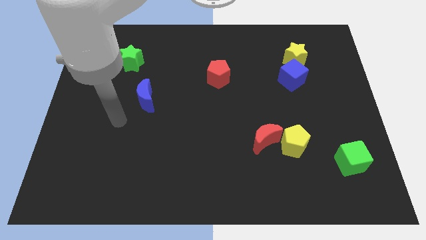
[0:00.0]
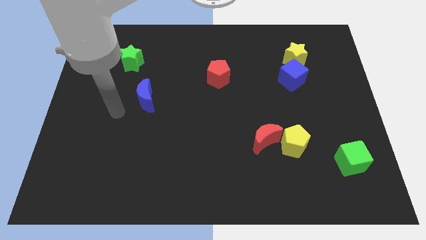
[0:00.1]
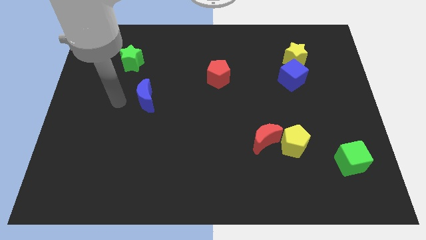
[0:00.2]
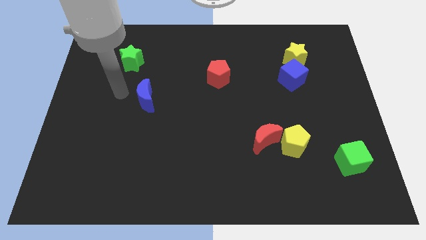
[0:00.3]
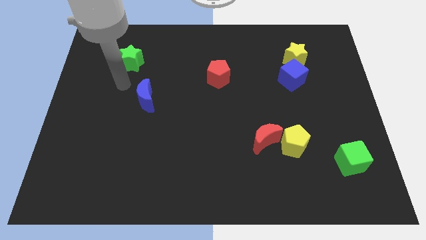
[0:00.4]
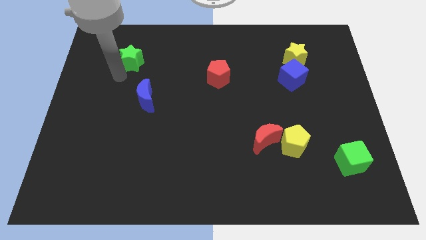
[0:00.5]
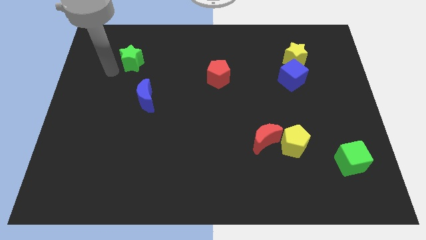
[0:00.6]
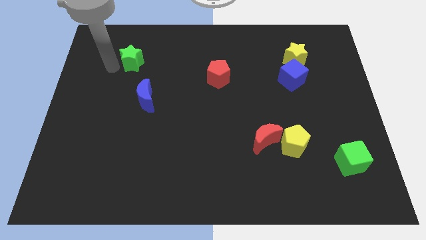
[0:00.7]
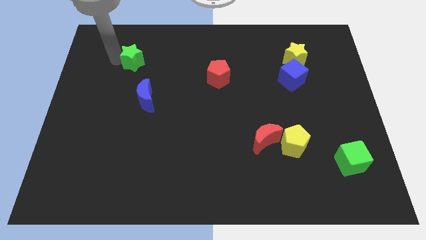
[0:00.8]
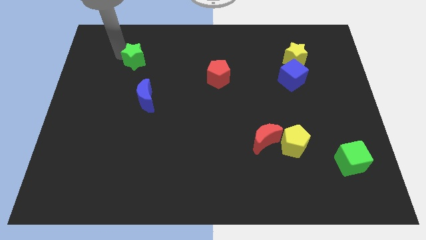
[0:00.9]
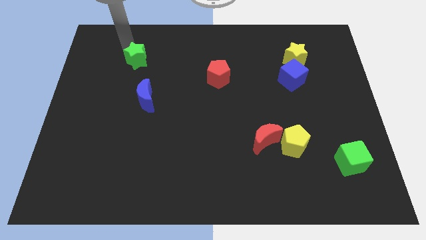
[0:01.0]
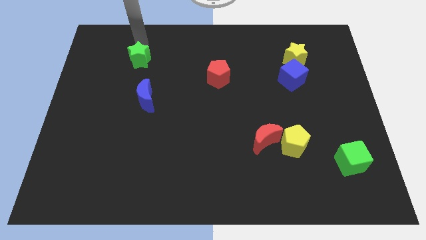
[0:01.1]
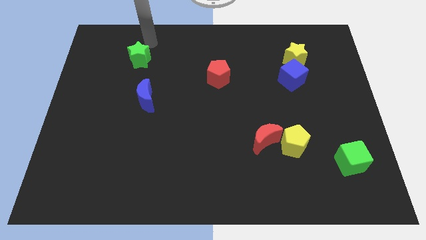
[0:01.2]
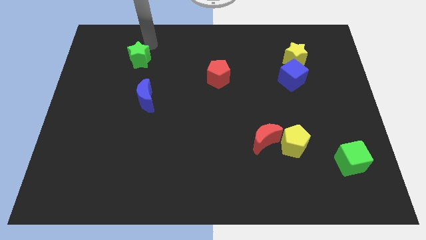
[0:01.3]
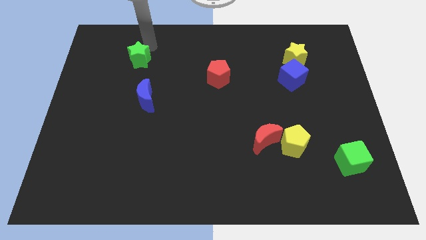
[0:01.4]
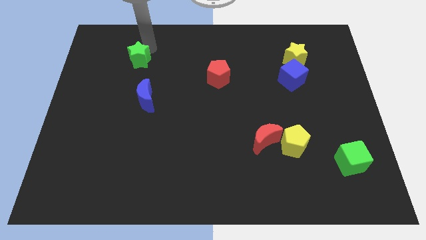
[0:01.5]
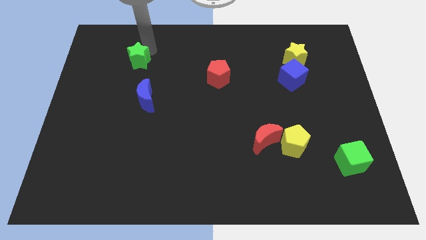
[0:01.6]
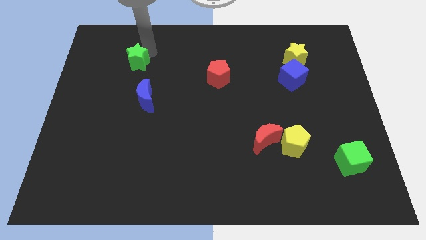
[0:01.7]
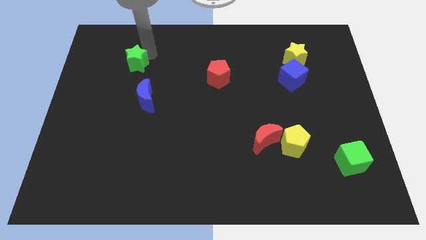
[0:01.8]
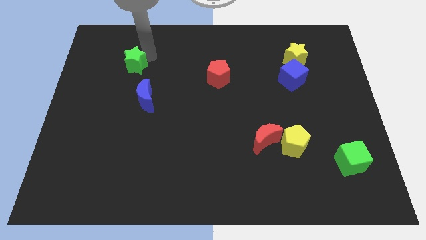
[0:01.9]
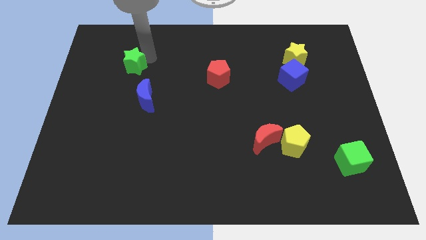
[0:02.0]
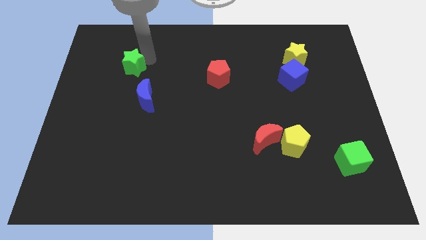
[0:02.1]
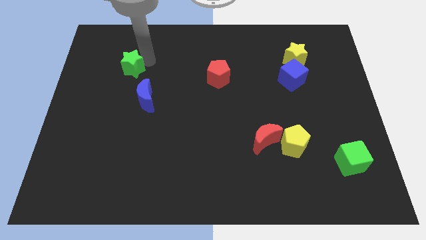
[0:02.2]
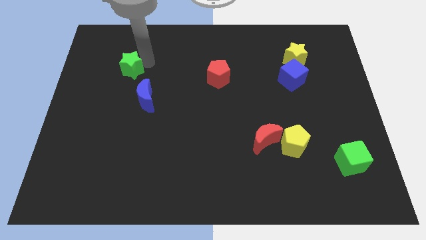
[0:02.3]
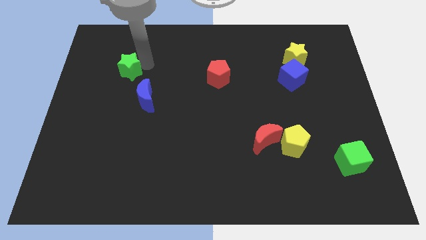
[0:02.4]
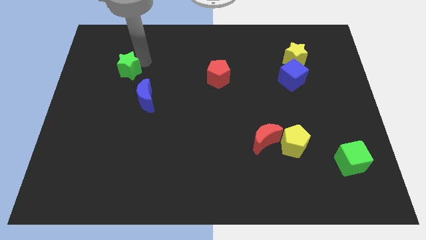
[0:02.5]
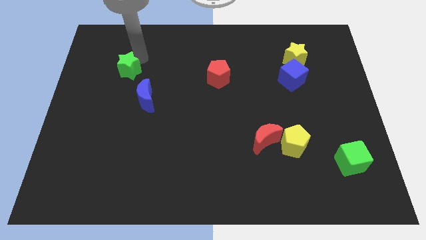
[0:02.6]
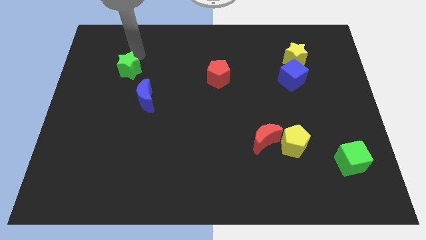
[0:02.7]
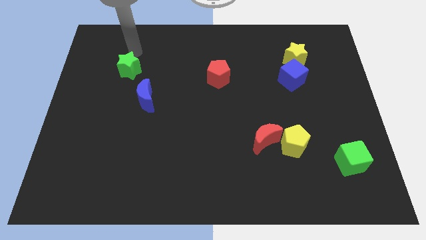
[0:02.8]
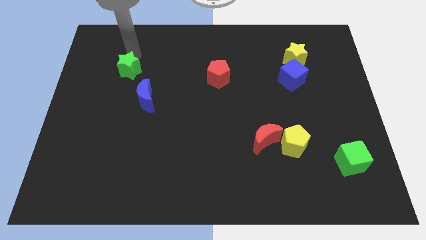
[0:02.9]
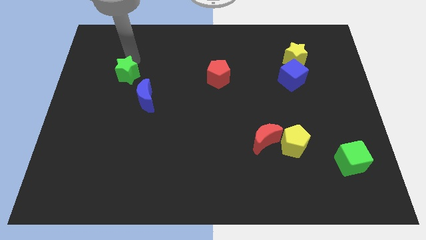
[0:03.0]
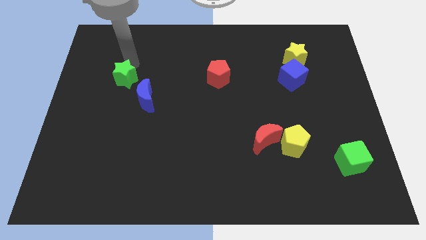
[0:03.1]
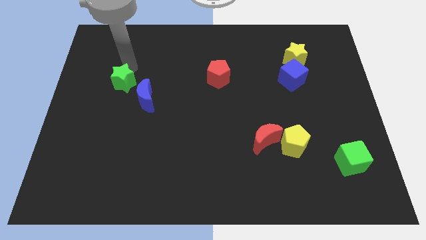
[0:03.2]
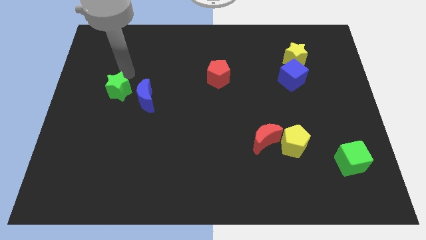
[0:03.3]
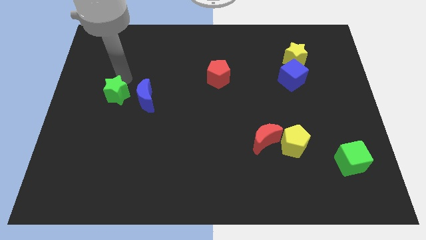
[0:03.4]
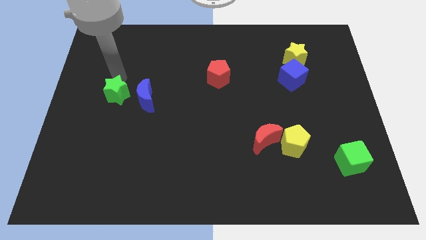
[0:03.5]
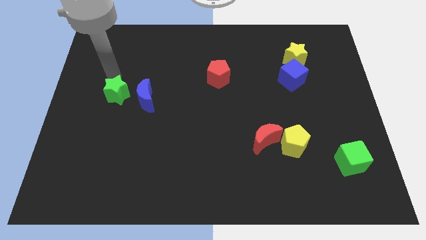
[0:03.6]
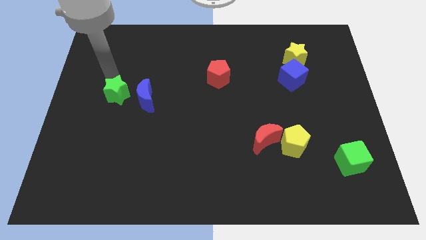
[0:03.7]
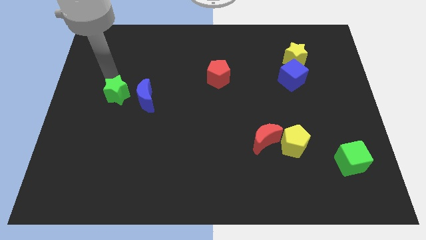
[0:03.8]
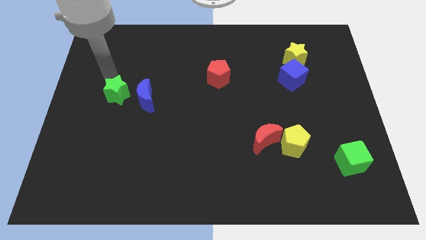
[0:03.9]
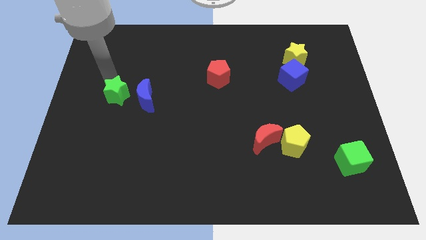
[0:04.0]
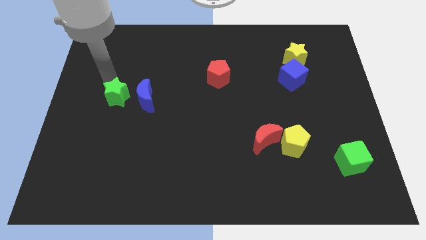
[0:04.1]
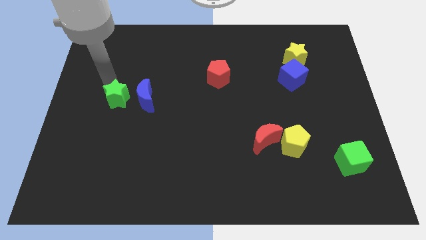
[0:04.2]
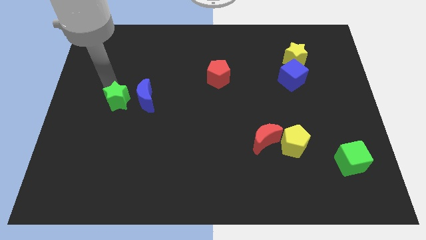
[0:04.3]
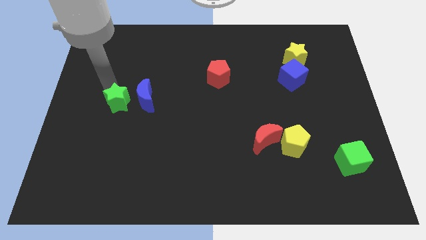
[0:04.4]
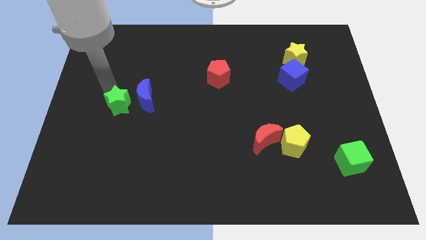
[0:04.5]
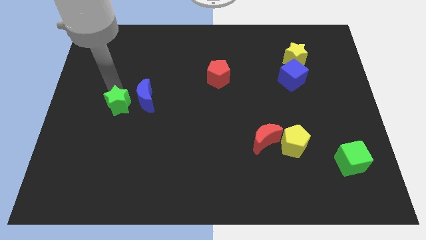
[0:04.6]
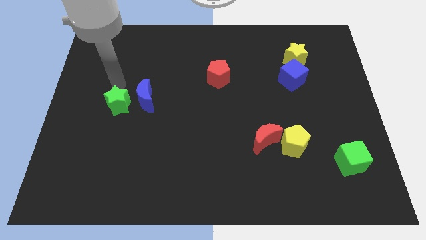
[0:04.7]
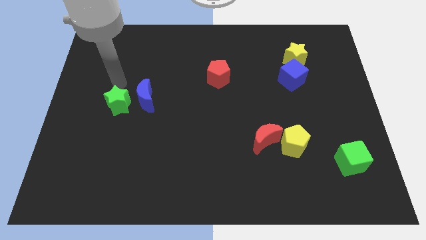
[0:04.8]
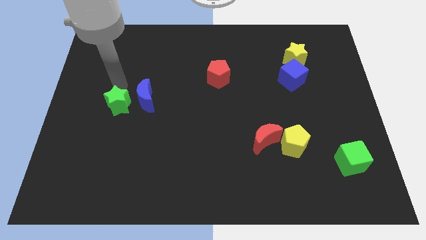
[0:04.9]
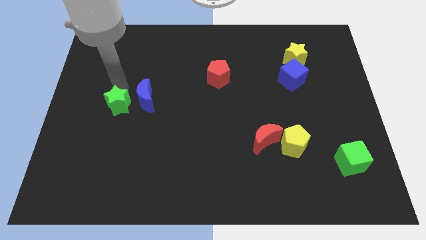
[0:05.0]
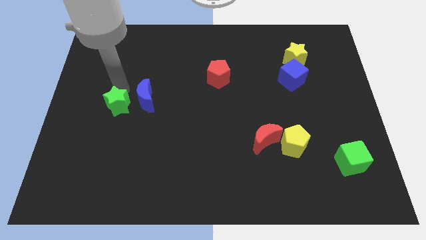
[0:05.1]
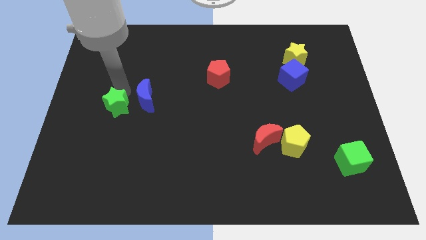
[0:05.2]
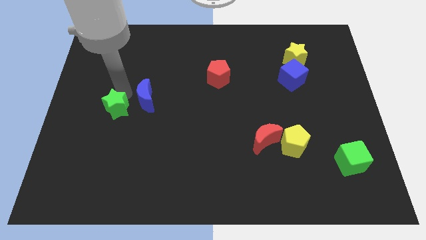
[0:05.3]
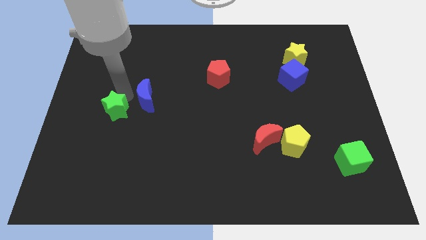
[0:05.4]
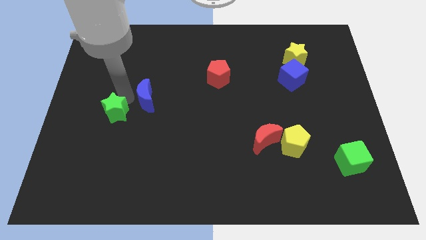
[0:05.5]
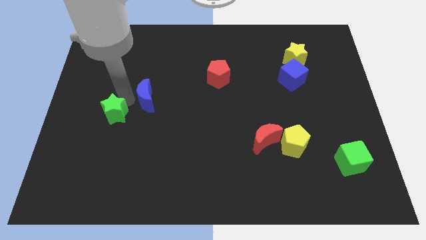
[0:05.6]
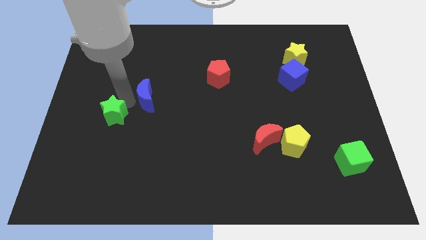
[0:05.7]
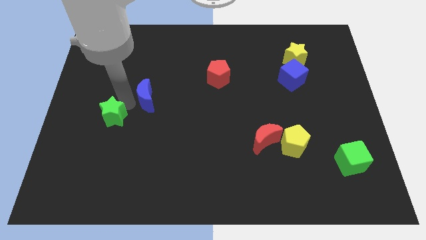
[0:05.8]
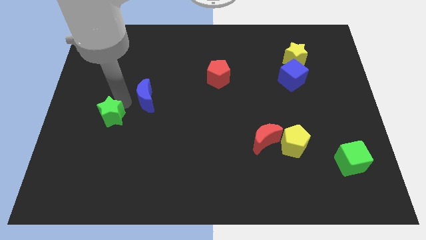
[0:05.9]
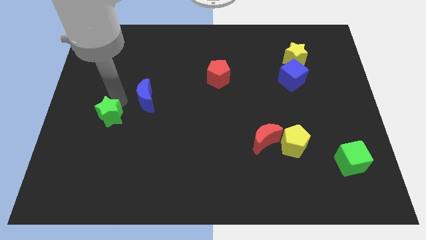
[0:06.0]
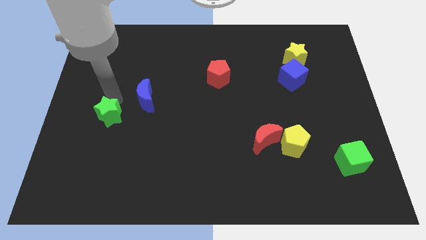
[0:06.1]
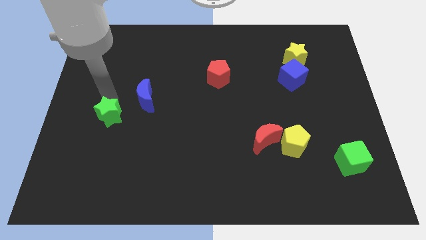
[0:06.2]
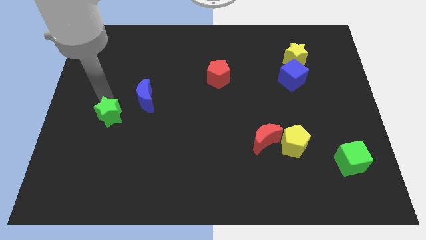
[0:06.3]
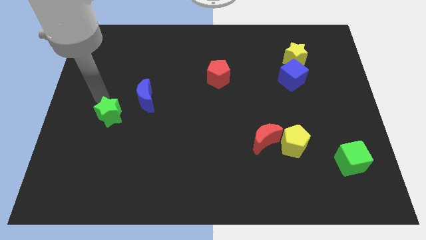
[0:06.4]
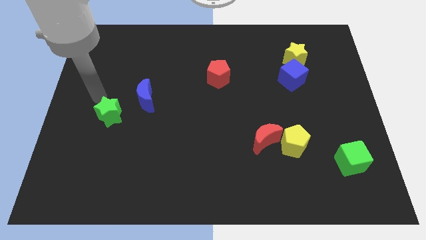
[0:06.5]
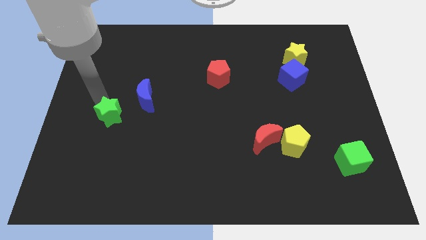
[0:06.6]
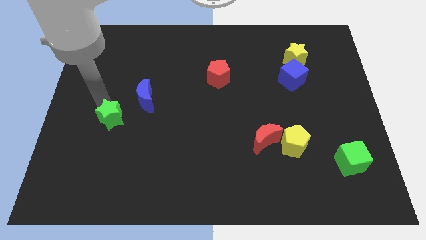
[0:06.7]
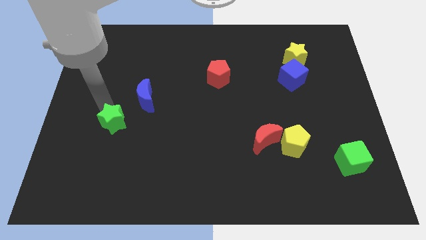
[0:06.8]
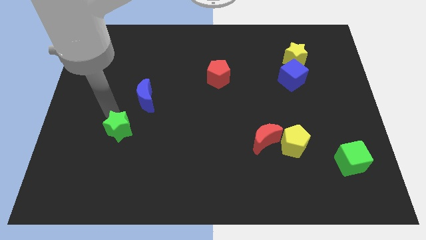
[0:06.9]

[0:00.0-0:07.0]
slide the green star downwards

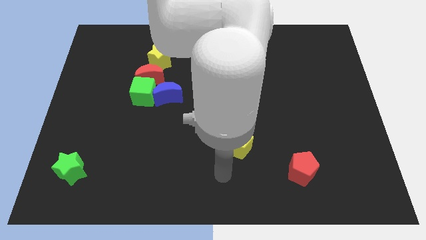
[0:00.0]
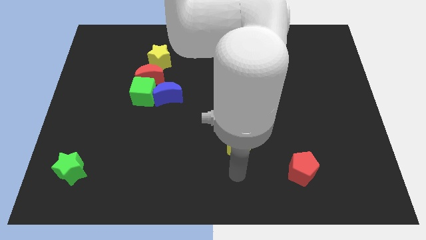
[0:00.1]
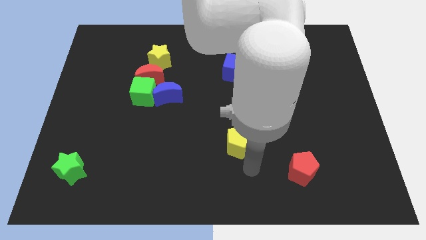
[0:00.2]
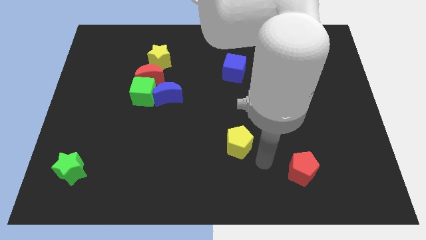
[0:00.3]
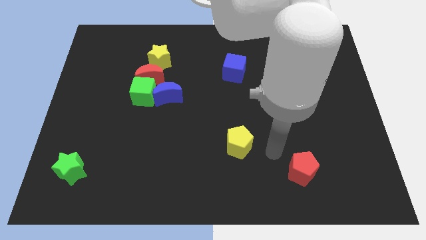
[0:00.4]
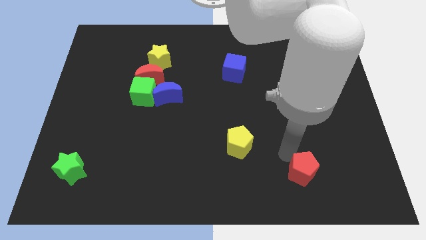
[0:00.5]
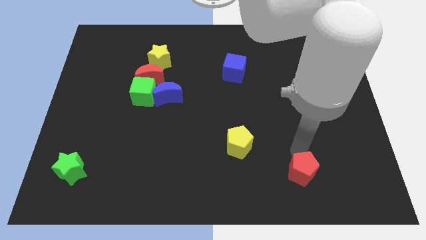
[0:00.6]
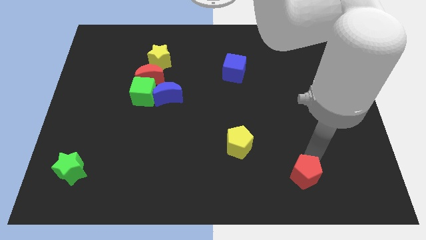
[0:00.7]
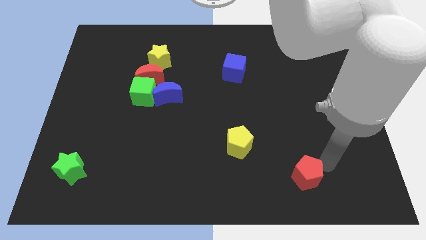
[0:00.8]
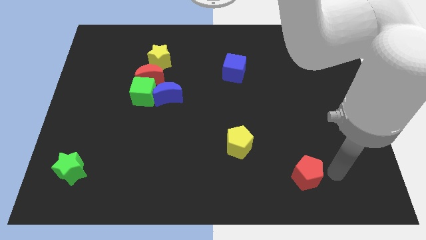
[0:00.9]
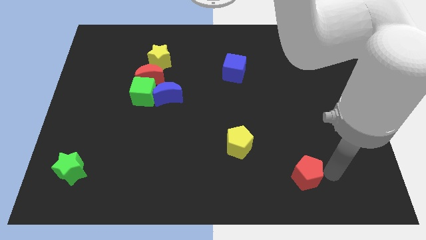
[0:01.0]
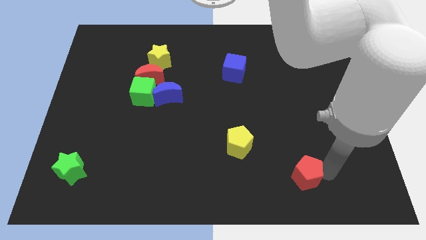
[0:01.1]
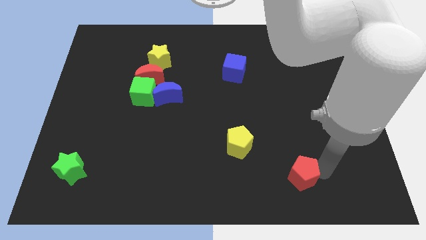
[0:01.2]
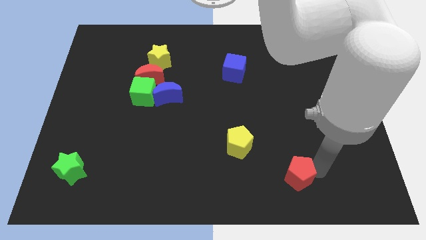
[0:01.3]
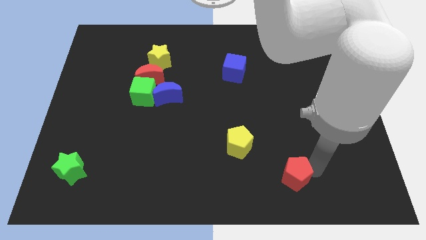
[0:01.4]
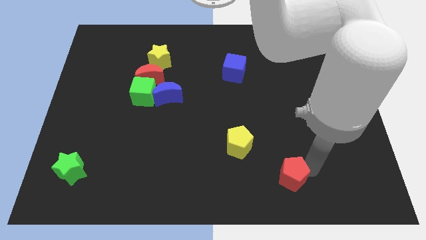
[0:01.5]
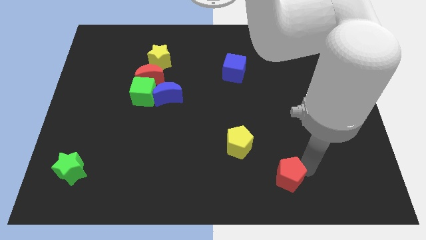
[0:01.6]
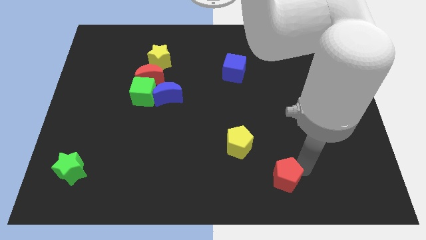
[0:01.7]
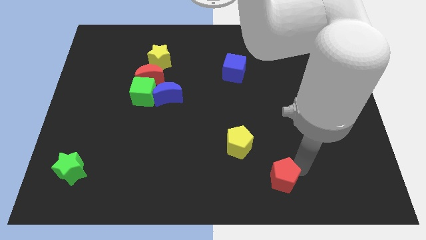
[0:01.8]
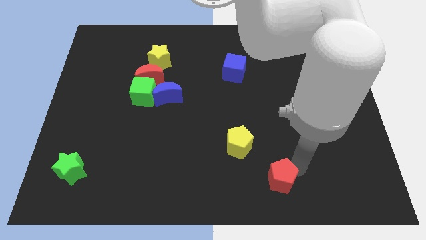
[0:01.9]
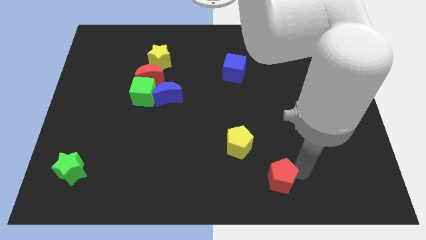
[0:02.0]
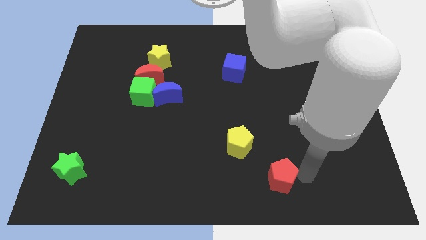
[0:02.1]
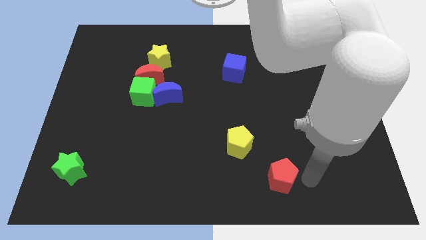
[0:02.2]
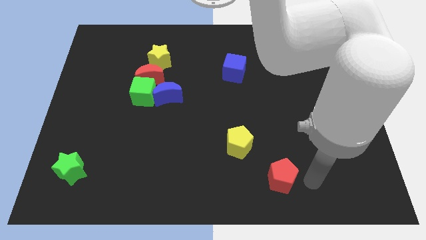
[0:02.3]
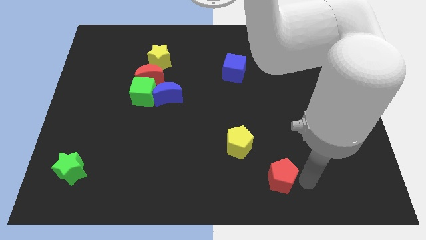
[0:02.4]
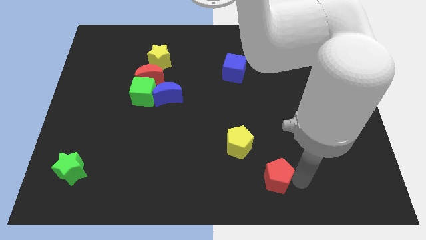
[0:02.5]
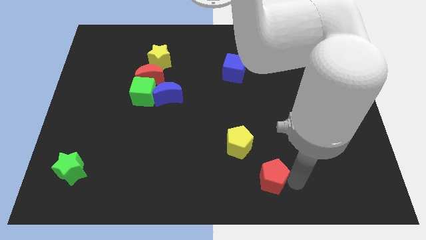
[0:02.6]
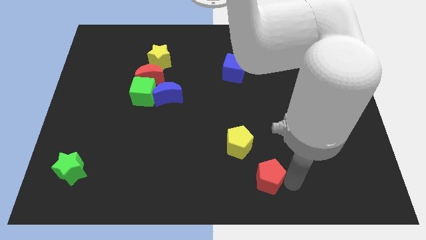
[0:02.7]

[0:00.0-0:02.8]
move the red pentagon to the left somewhat
